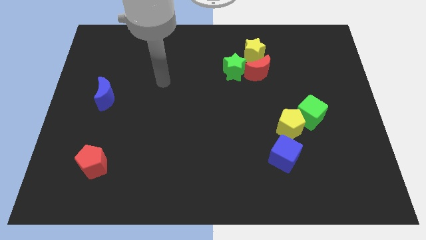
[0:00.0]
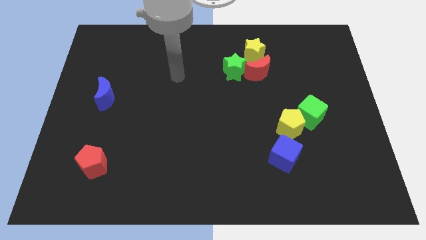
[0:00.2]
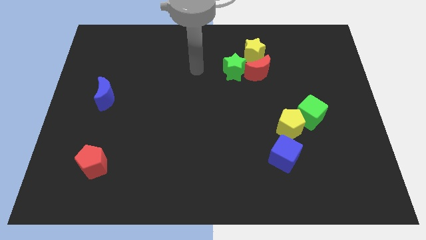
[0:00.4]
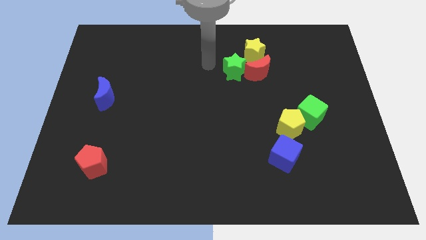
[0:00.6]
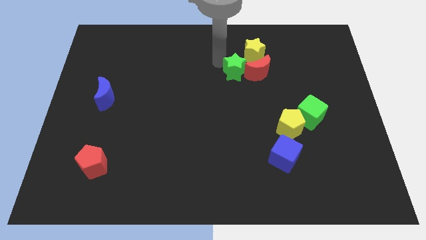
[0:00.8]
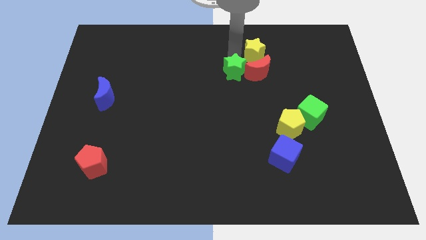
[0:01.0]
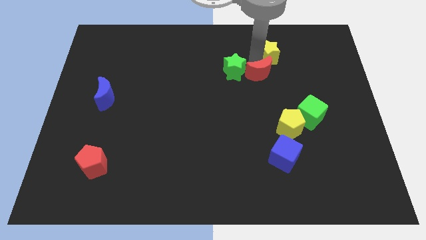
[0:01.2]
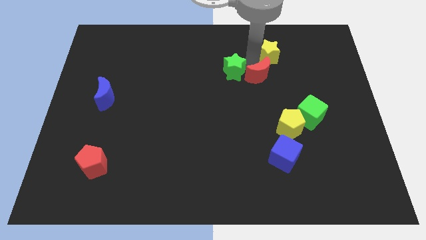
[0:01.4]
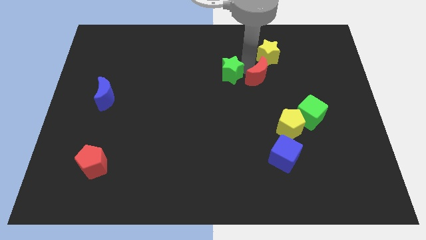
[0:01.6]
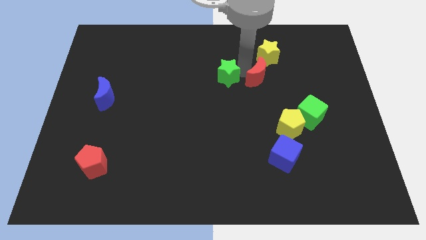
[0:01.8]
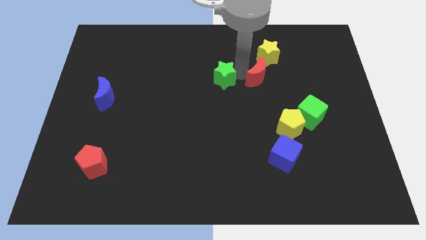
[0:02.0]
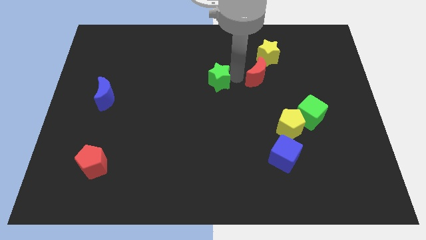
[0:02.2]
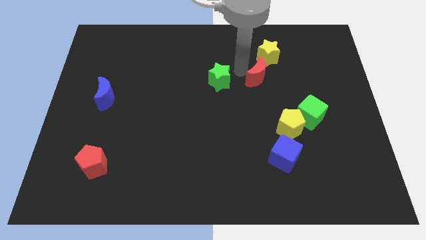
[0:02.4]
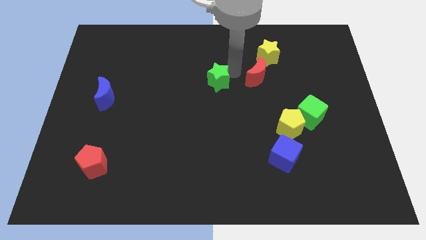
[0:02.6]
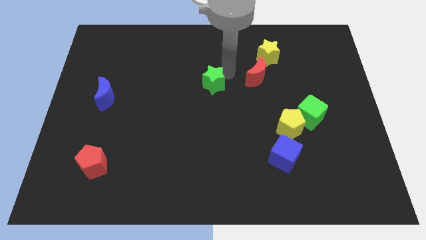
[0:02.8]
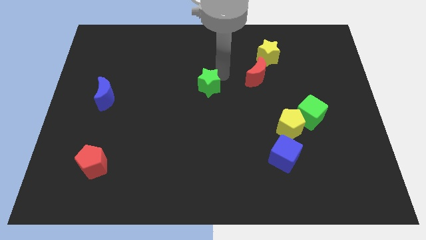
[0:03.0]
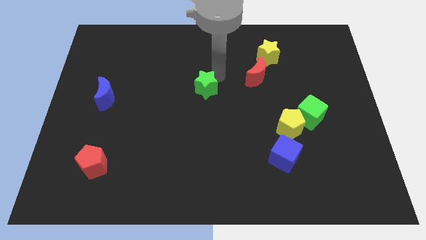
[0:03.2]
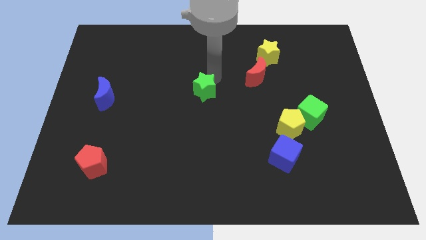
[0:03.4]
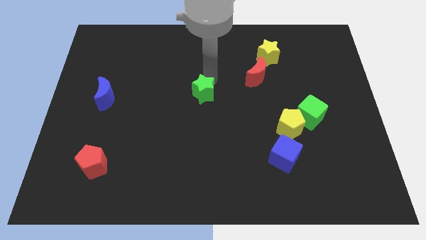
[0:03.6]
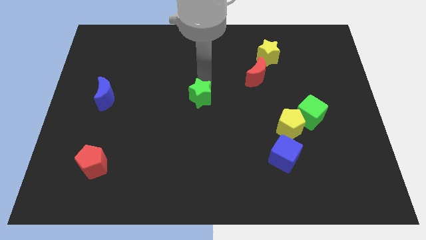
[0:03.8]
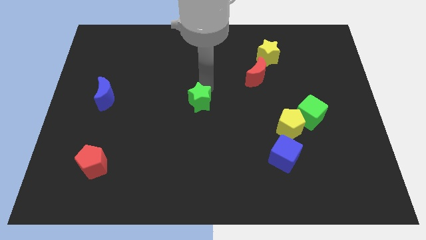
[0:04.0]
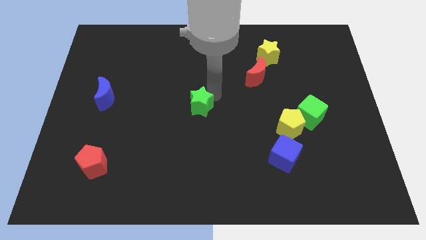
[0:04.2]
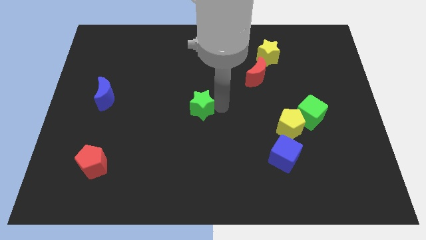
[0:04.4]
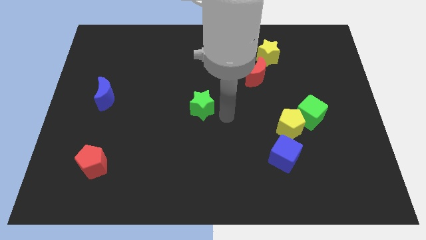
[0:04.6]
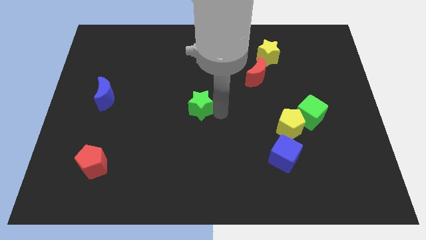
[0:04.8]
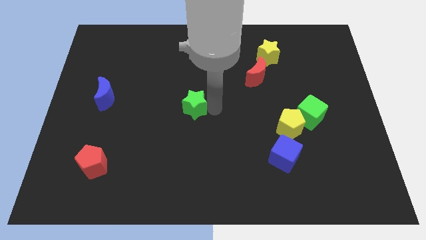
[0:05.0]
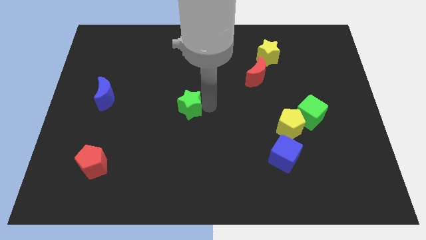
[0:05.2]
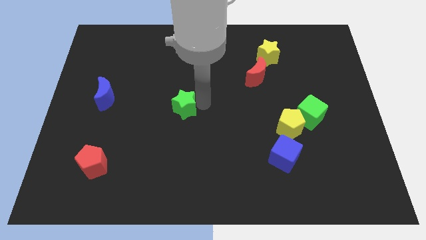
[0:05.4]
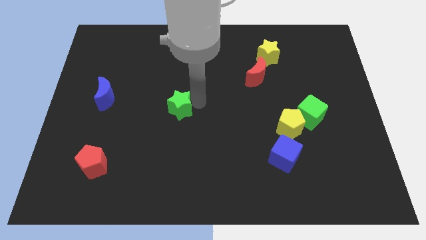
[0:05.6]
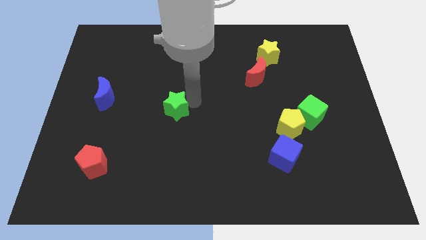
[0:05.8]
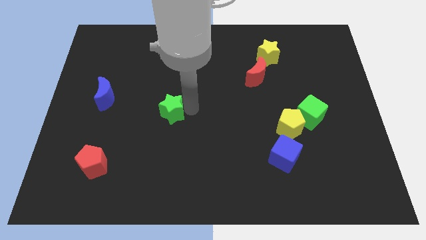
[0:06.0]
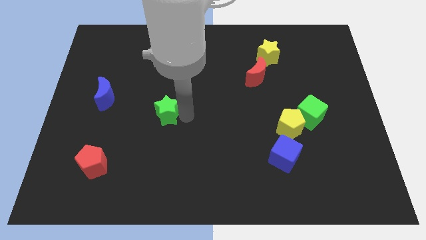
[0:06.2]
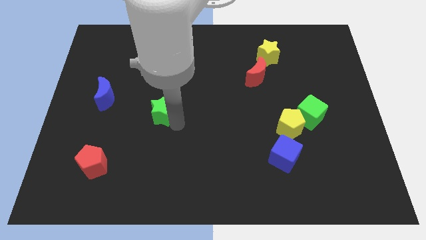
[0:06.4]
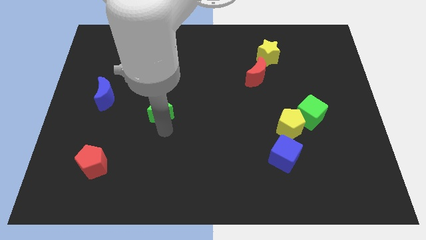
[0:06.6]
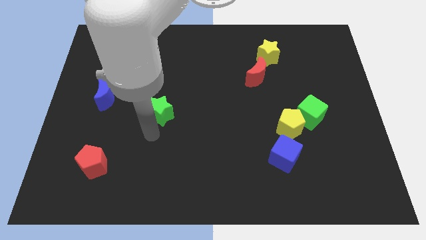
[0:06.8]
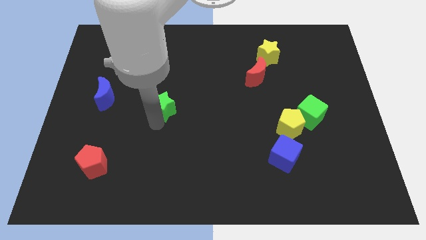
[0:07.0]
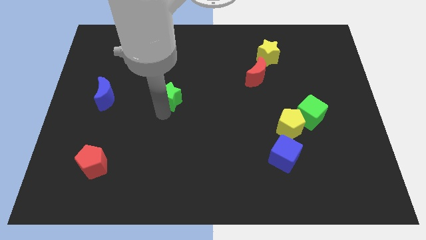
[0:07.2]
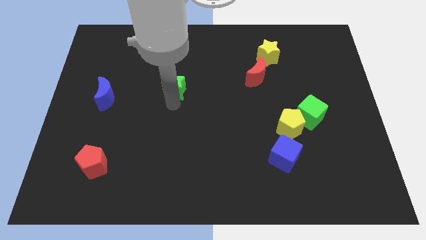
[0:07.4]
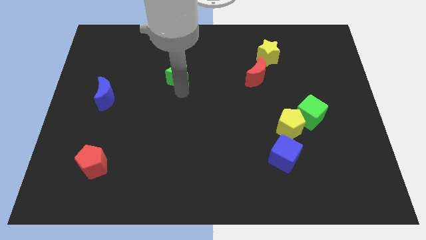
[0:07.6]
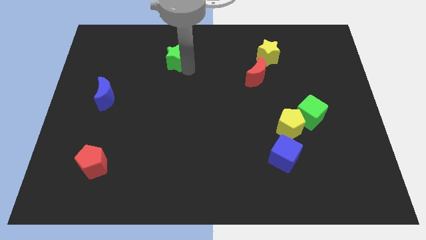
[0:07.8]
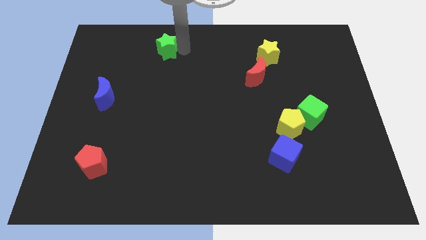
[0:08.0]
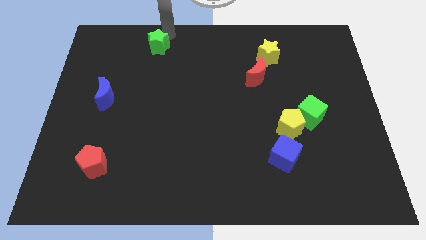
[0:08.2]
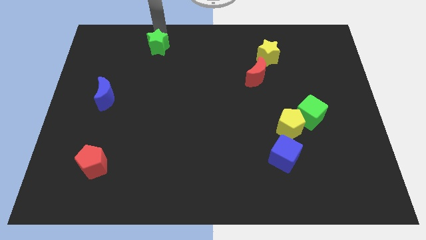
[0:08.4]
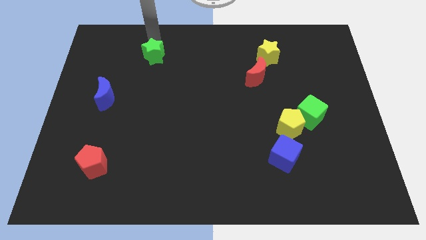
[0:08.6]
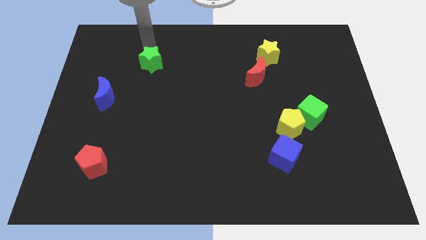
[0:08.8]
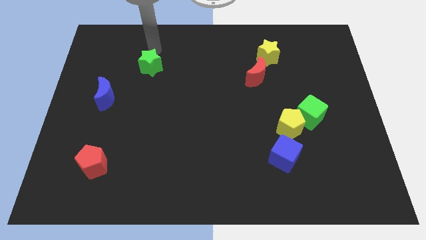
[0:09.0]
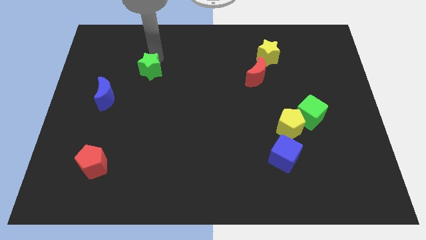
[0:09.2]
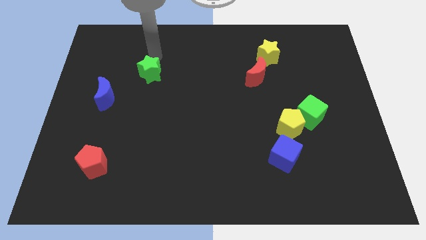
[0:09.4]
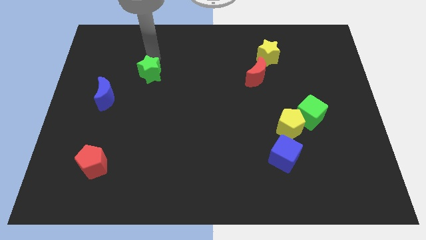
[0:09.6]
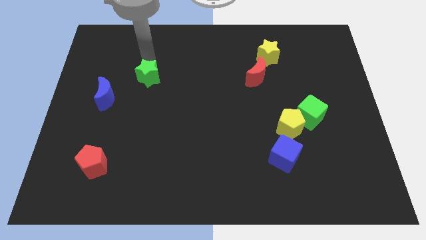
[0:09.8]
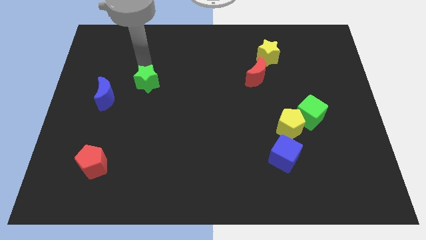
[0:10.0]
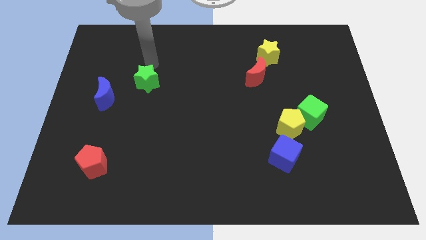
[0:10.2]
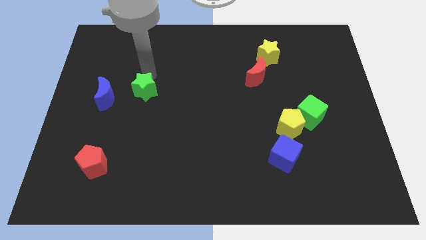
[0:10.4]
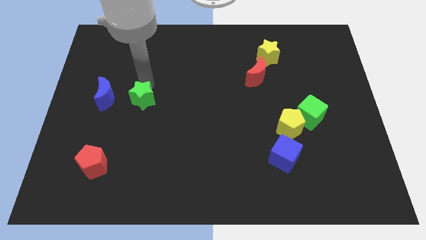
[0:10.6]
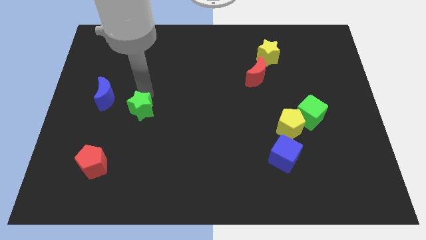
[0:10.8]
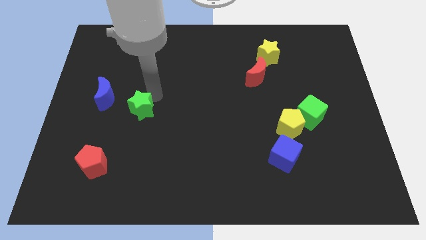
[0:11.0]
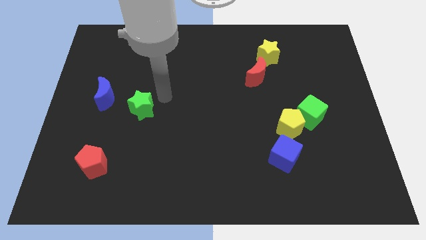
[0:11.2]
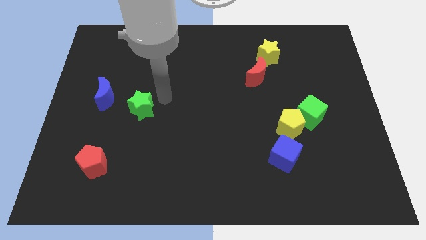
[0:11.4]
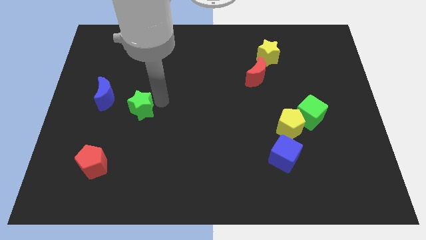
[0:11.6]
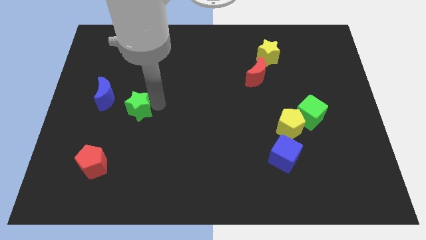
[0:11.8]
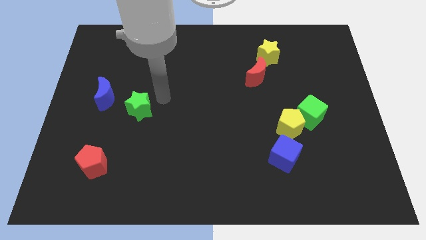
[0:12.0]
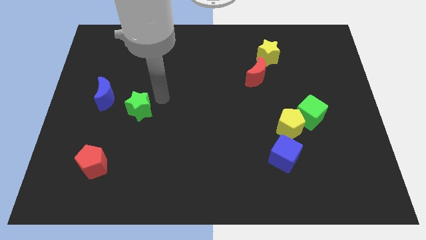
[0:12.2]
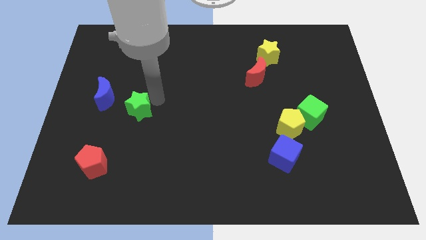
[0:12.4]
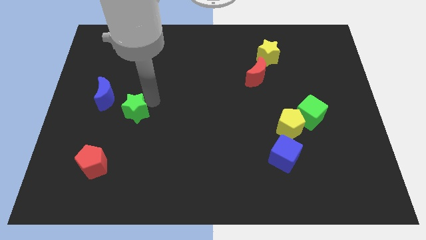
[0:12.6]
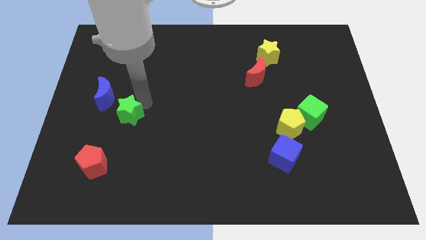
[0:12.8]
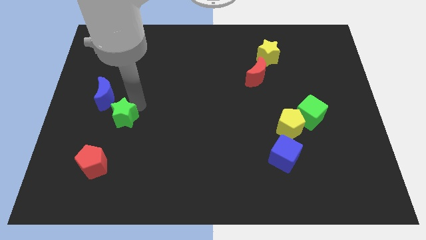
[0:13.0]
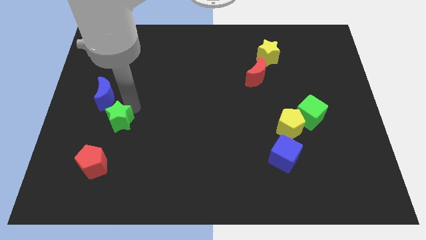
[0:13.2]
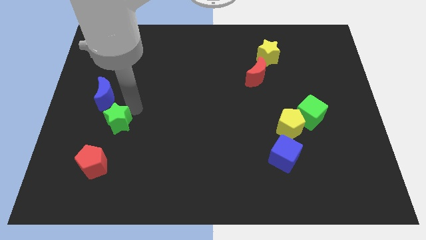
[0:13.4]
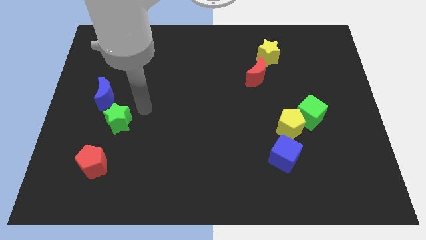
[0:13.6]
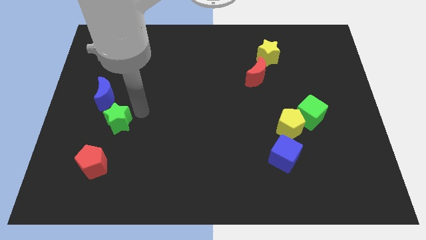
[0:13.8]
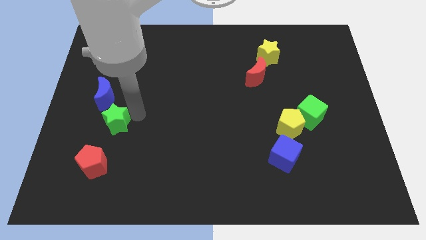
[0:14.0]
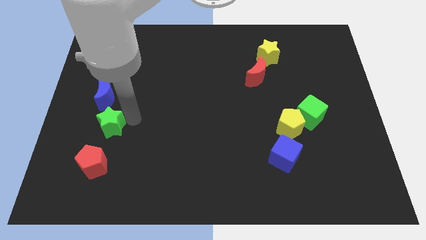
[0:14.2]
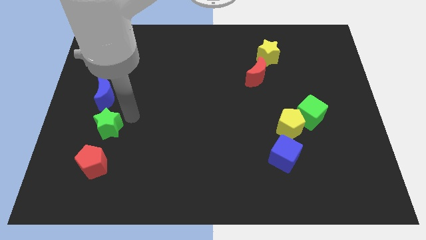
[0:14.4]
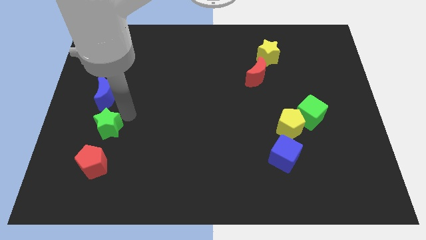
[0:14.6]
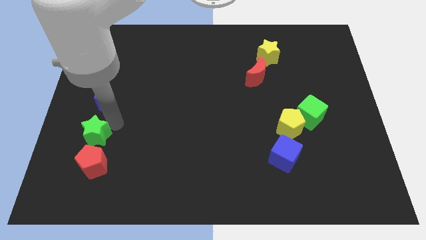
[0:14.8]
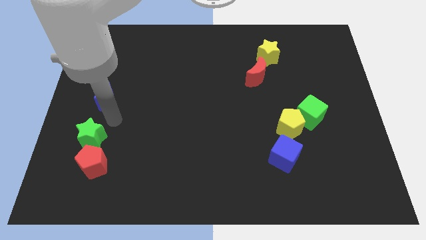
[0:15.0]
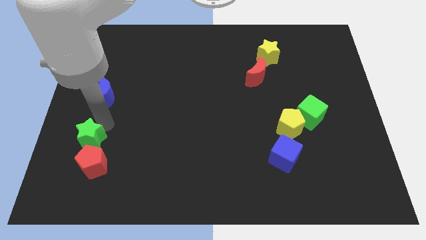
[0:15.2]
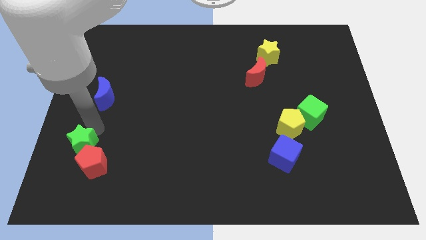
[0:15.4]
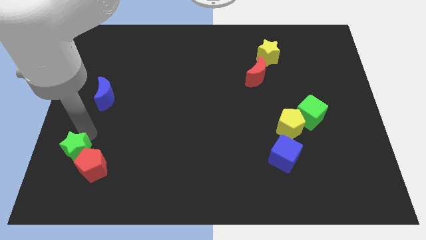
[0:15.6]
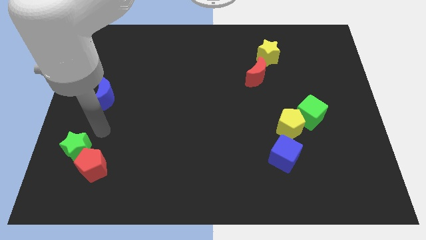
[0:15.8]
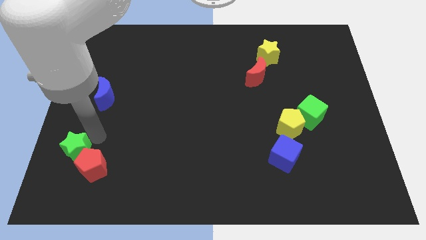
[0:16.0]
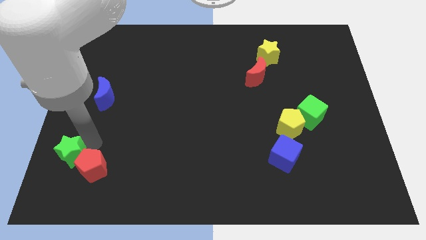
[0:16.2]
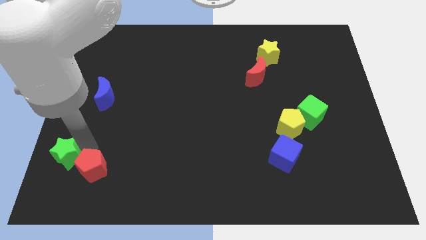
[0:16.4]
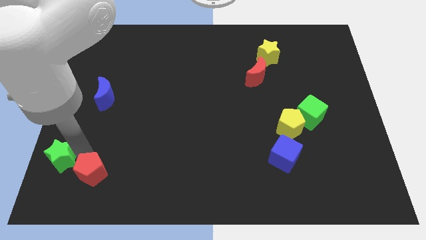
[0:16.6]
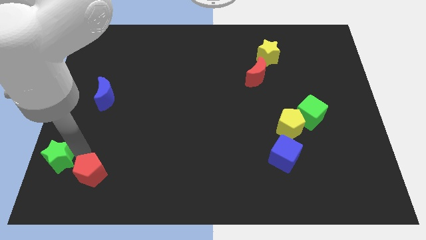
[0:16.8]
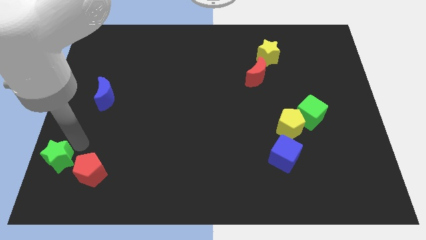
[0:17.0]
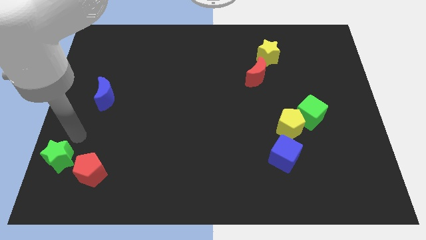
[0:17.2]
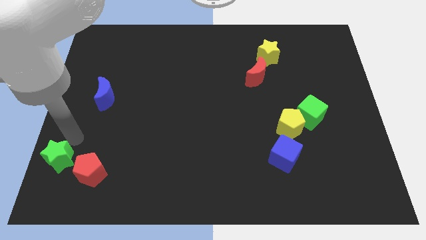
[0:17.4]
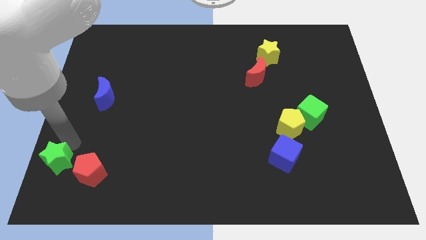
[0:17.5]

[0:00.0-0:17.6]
push the green star to the bottom left of the board
